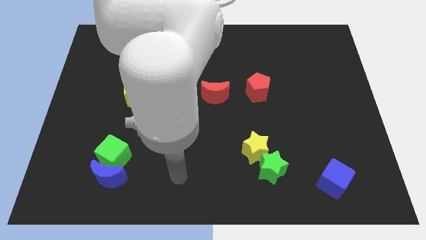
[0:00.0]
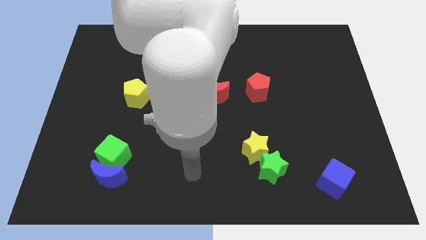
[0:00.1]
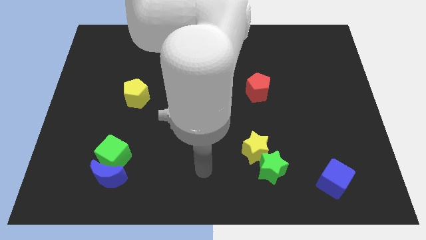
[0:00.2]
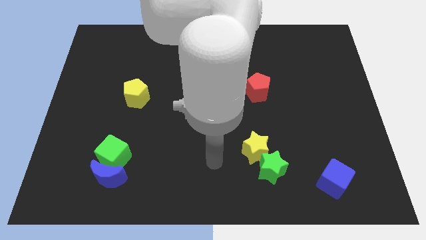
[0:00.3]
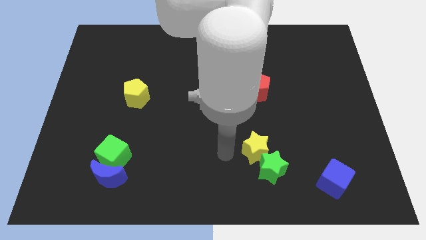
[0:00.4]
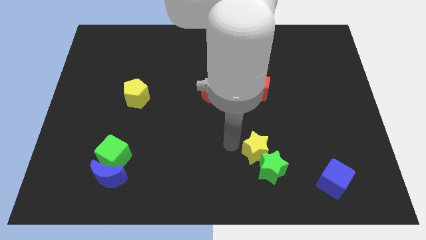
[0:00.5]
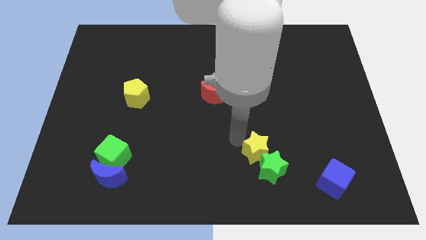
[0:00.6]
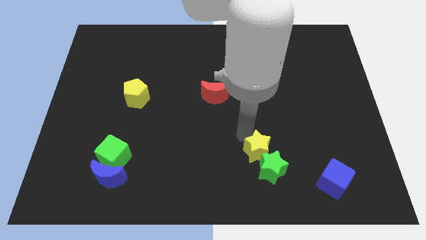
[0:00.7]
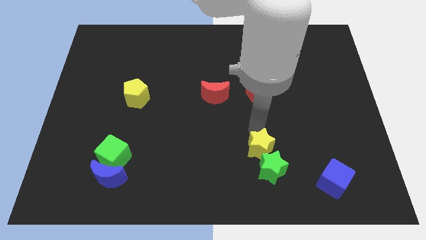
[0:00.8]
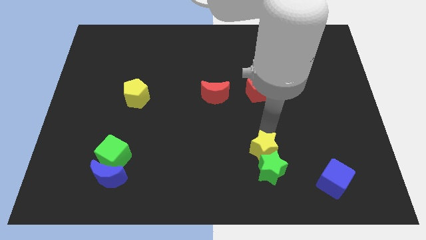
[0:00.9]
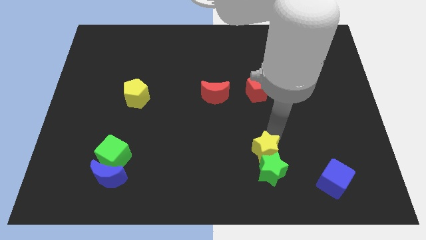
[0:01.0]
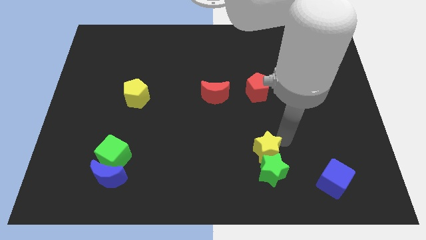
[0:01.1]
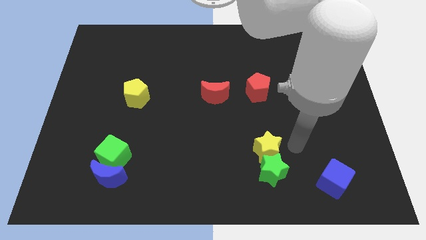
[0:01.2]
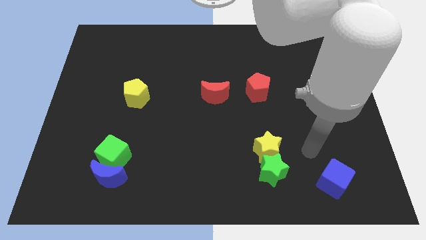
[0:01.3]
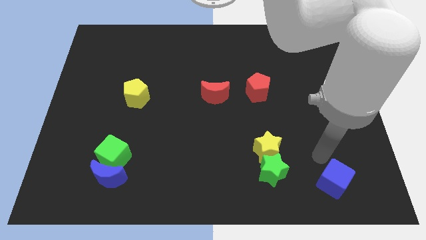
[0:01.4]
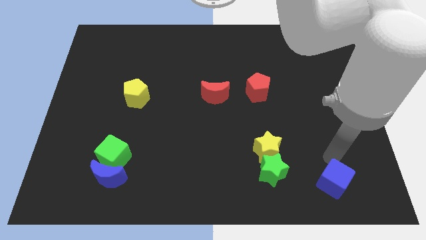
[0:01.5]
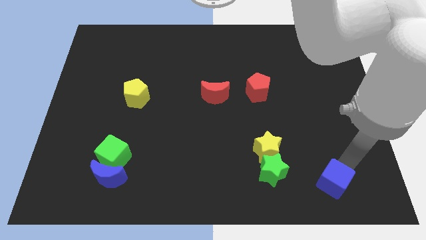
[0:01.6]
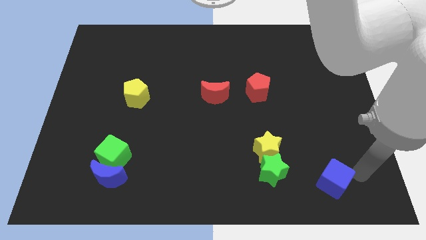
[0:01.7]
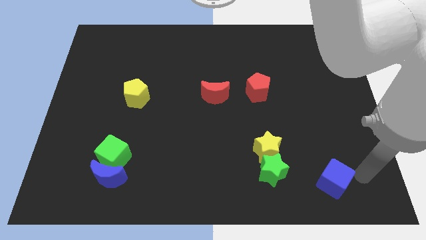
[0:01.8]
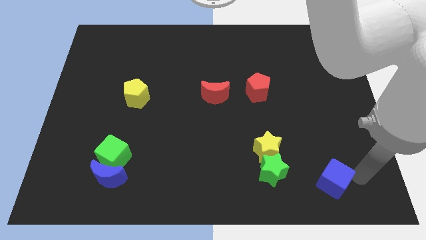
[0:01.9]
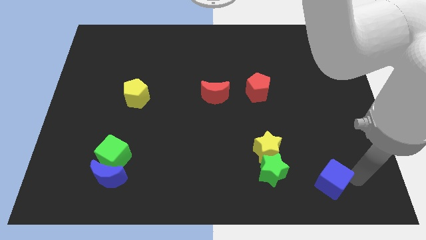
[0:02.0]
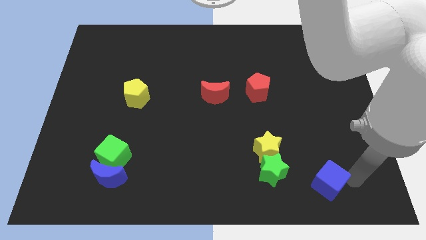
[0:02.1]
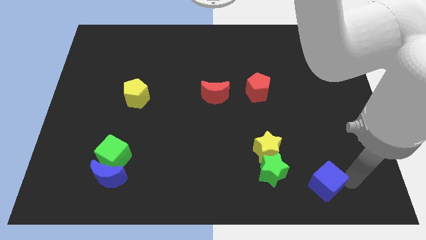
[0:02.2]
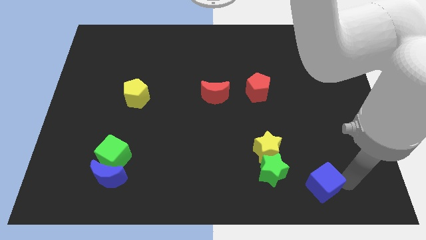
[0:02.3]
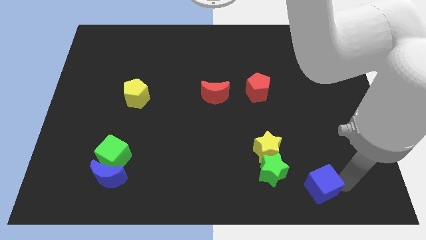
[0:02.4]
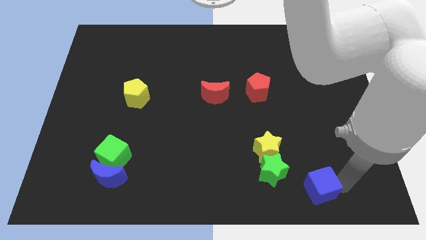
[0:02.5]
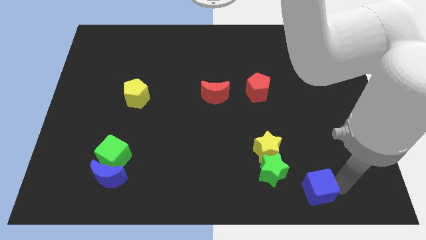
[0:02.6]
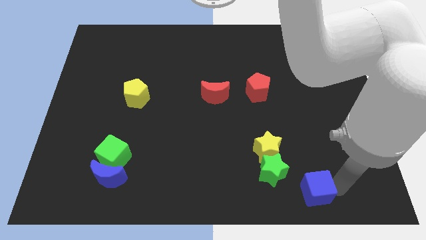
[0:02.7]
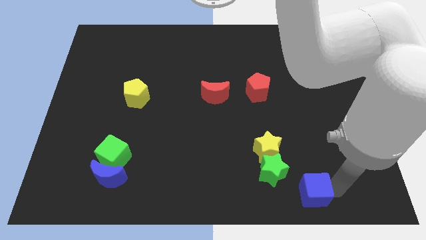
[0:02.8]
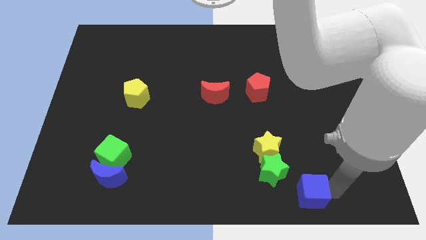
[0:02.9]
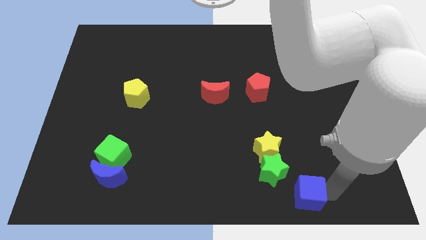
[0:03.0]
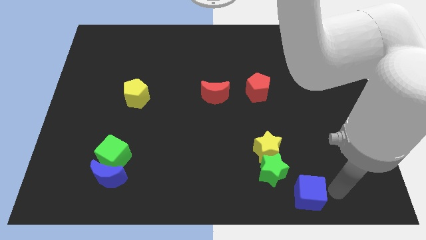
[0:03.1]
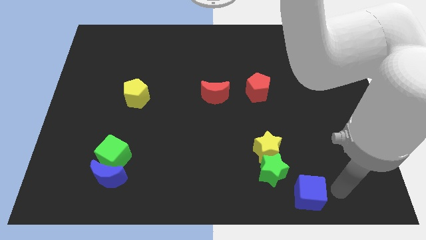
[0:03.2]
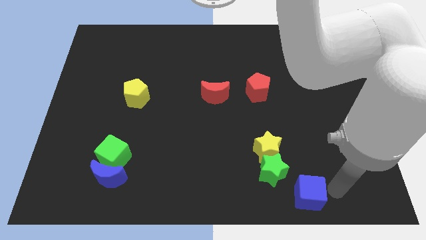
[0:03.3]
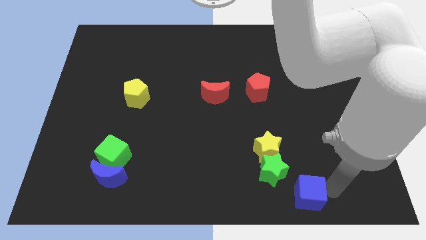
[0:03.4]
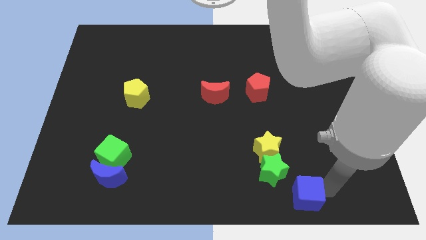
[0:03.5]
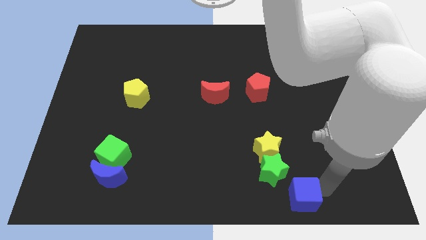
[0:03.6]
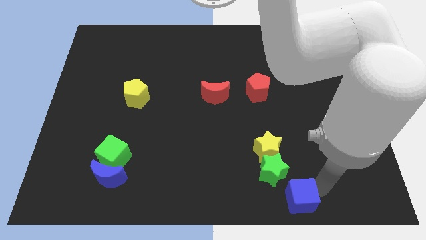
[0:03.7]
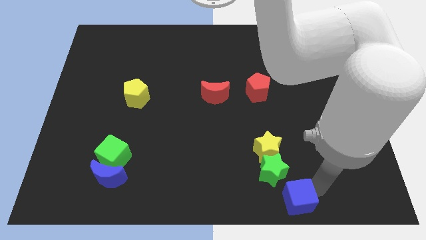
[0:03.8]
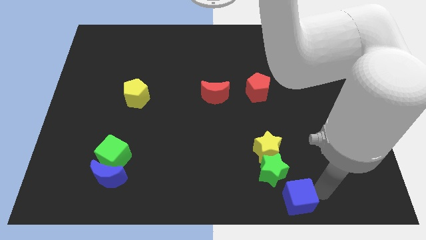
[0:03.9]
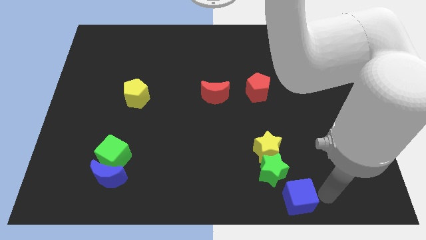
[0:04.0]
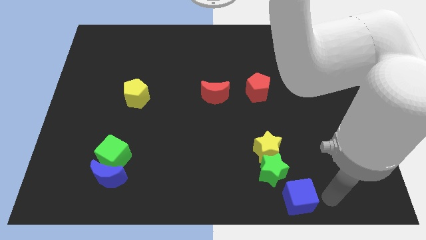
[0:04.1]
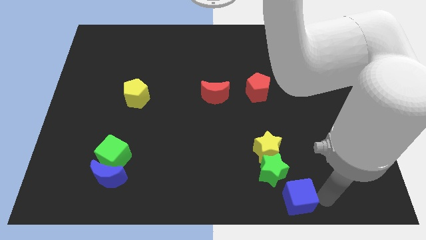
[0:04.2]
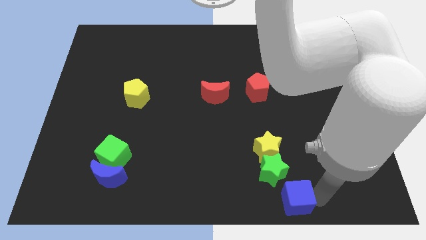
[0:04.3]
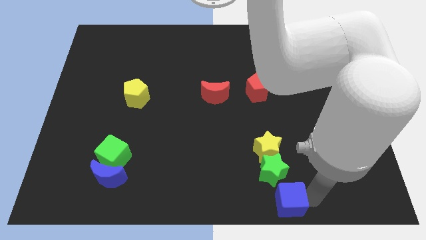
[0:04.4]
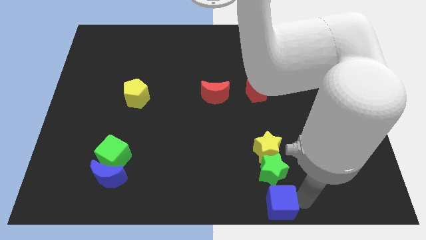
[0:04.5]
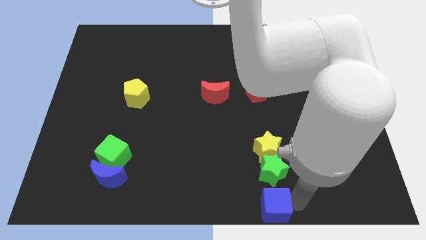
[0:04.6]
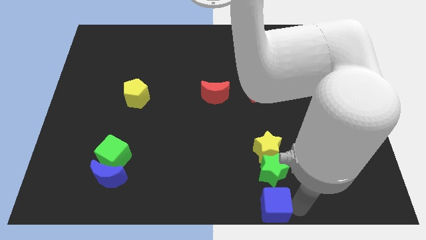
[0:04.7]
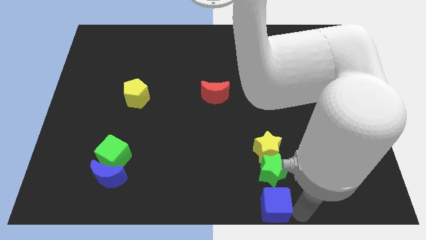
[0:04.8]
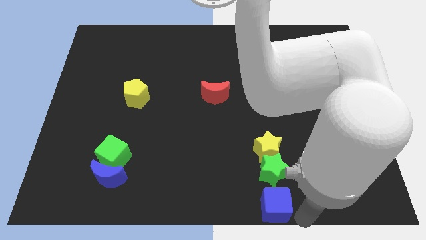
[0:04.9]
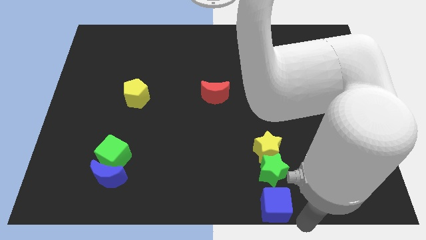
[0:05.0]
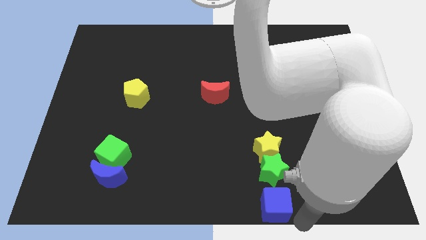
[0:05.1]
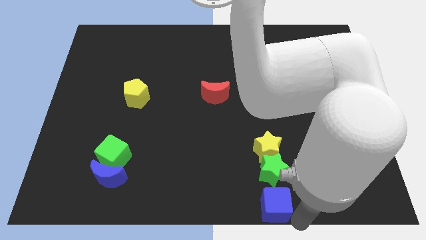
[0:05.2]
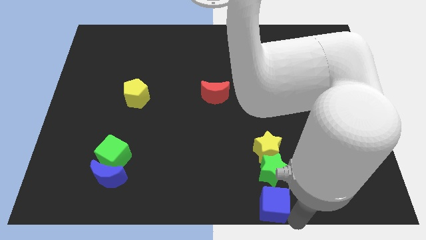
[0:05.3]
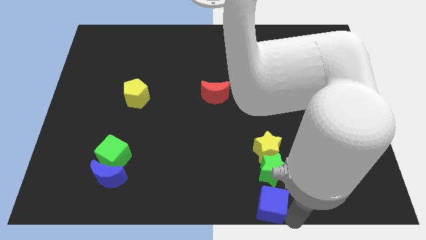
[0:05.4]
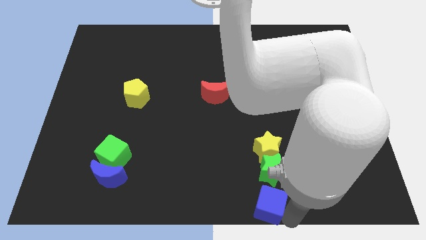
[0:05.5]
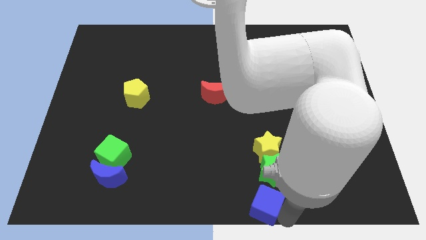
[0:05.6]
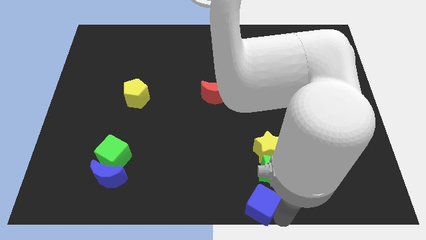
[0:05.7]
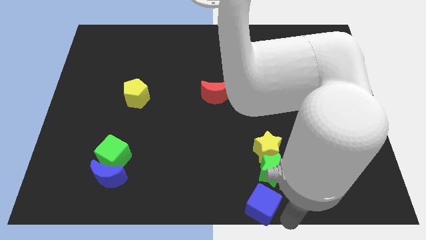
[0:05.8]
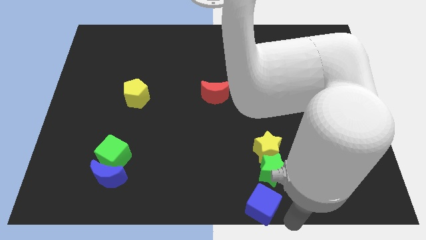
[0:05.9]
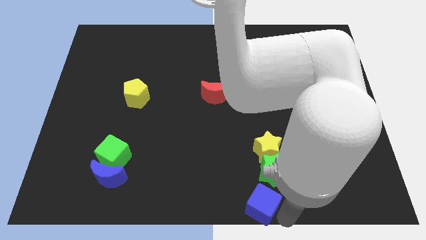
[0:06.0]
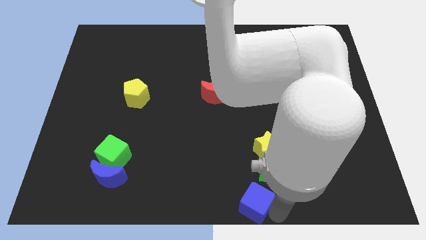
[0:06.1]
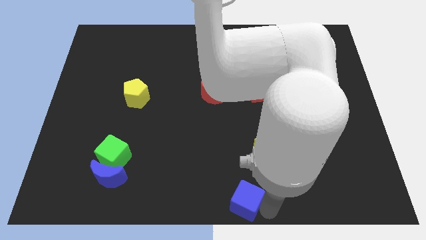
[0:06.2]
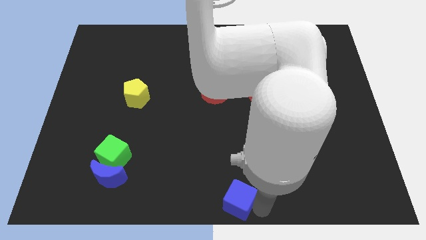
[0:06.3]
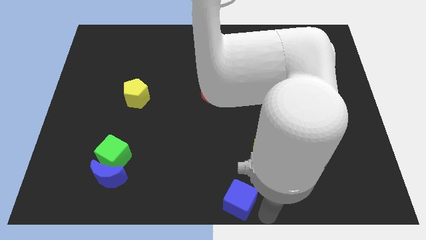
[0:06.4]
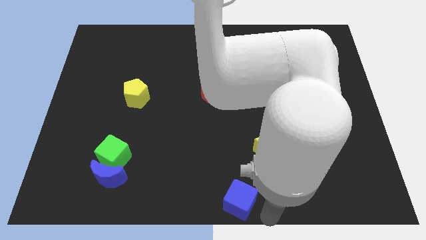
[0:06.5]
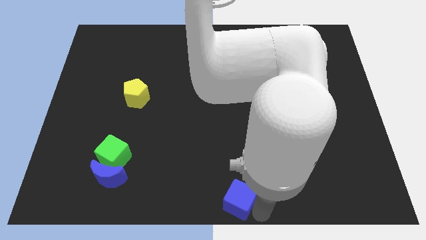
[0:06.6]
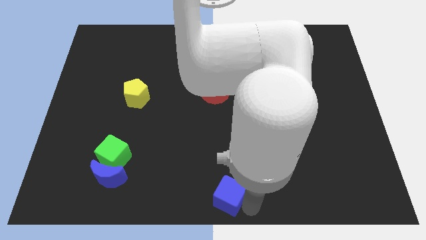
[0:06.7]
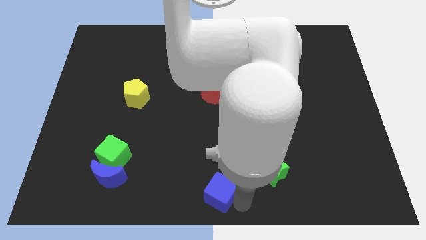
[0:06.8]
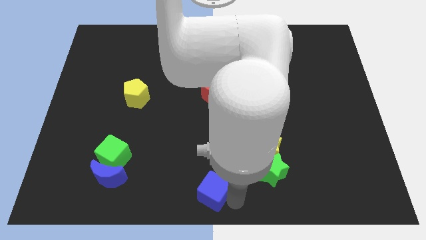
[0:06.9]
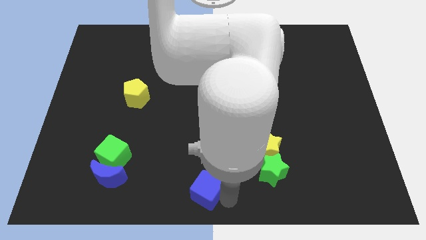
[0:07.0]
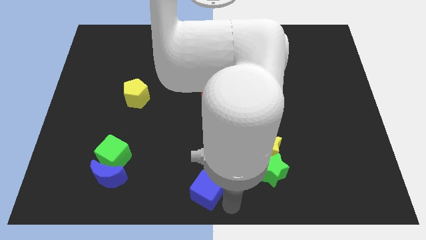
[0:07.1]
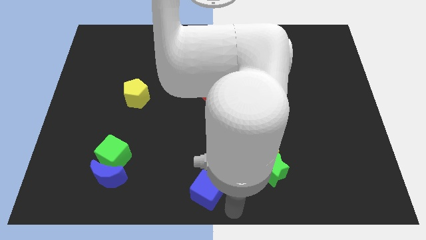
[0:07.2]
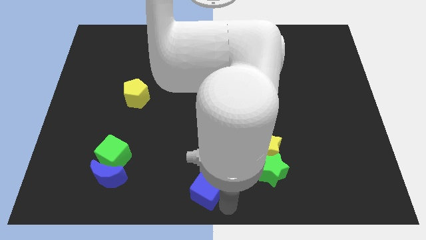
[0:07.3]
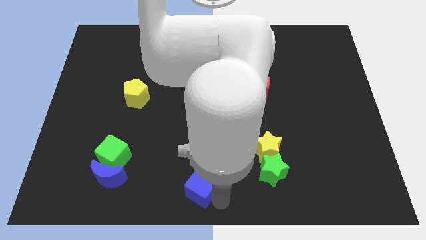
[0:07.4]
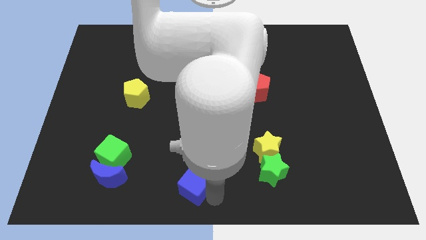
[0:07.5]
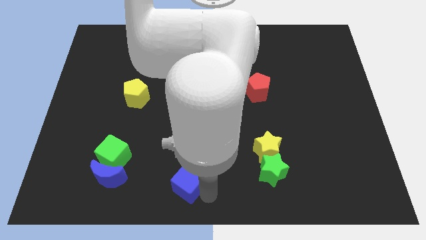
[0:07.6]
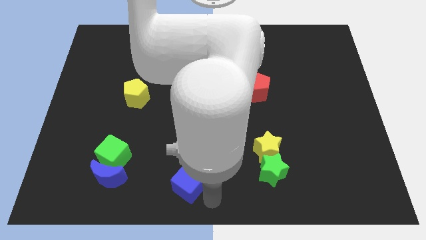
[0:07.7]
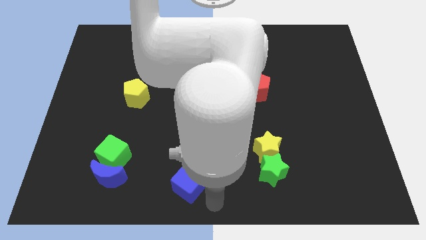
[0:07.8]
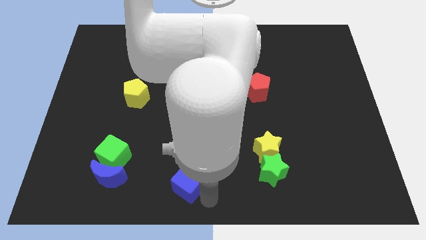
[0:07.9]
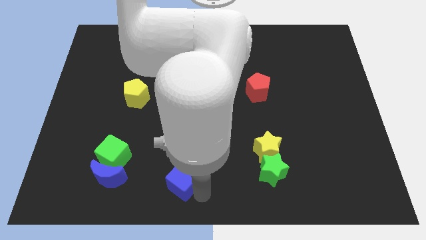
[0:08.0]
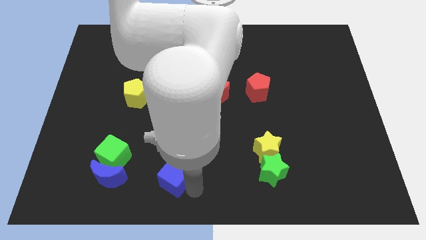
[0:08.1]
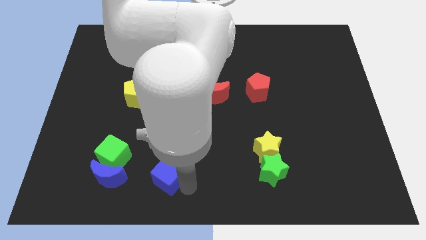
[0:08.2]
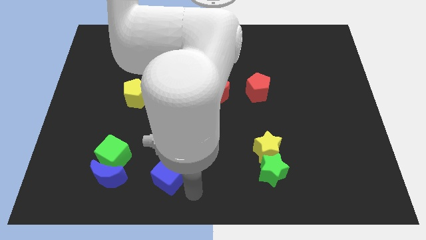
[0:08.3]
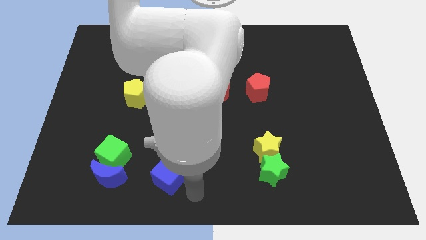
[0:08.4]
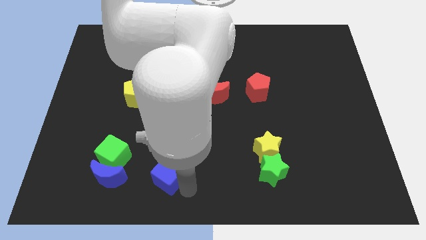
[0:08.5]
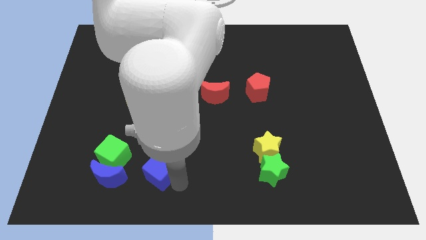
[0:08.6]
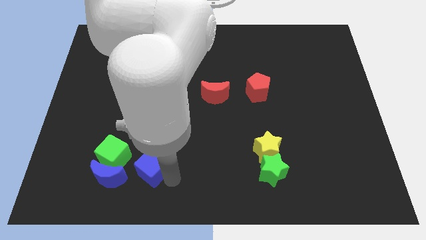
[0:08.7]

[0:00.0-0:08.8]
push the blue cube to the top right of the blue moon
